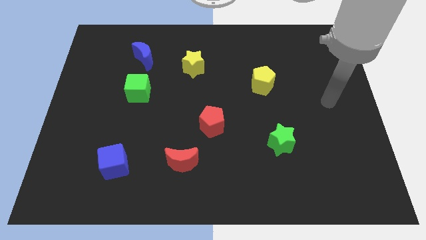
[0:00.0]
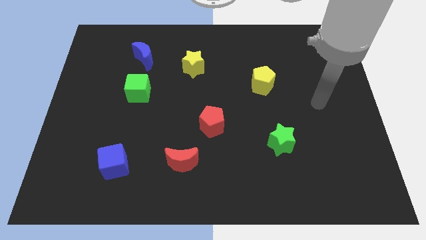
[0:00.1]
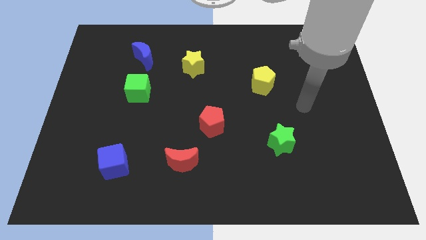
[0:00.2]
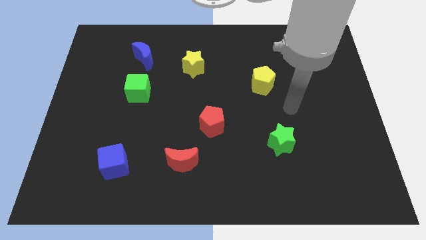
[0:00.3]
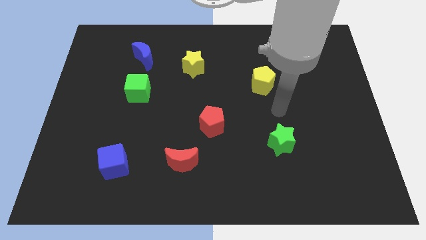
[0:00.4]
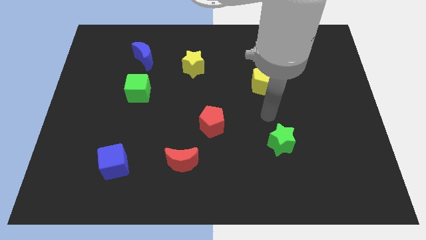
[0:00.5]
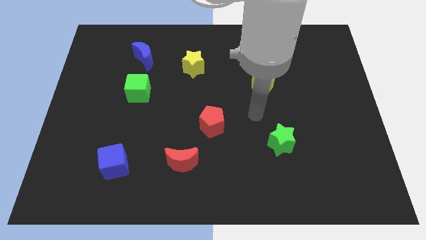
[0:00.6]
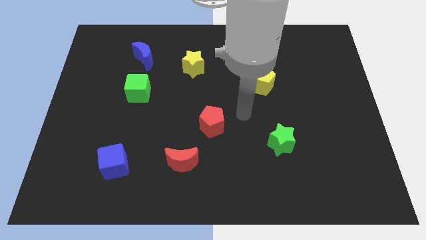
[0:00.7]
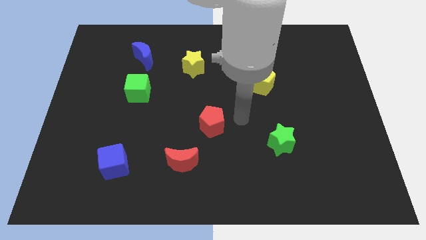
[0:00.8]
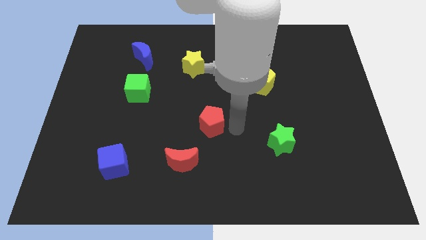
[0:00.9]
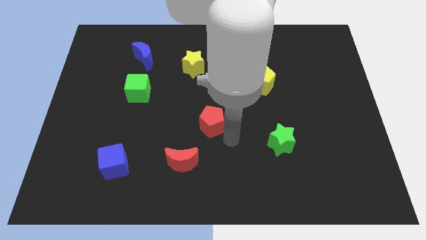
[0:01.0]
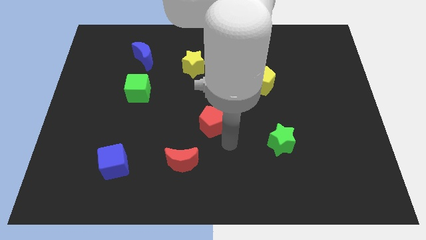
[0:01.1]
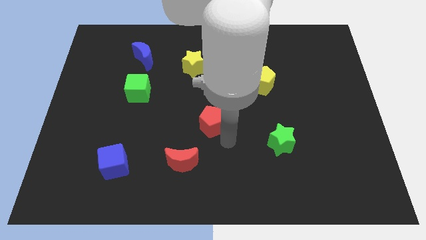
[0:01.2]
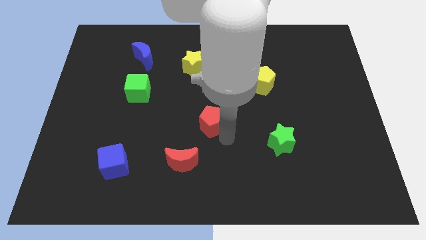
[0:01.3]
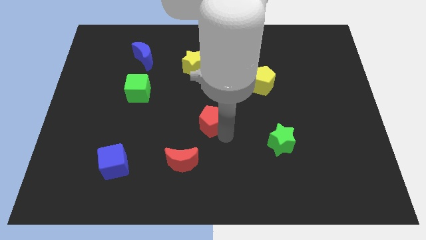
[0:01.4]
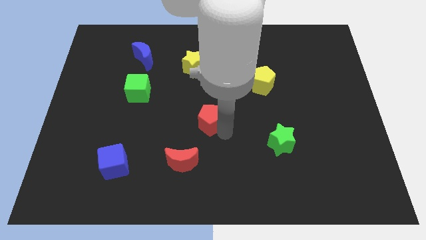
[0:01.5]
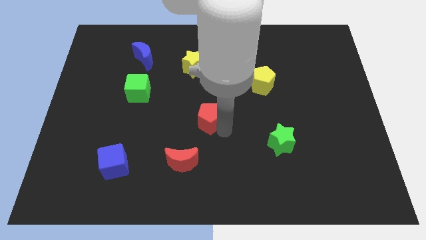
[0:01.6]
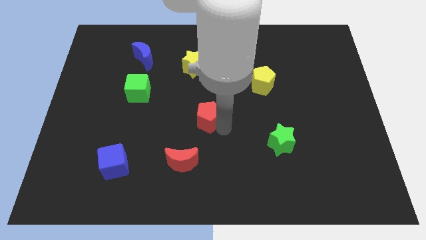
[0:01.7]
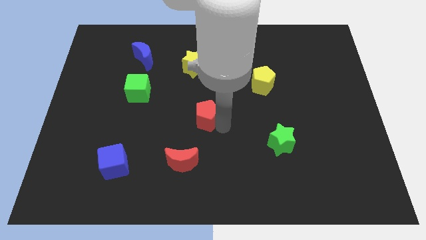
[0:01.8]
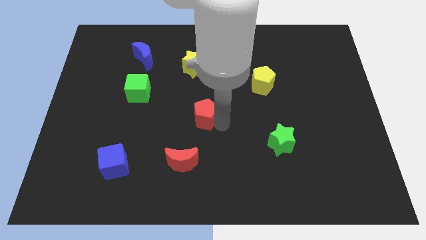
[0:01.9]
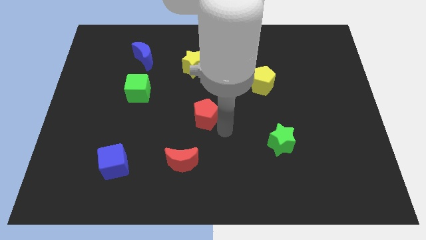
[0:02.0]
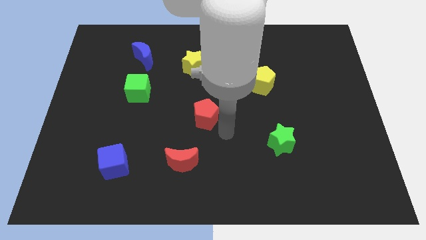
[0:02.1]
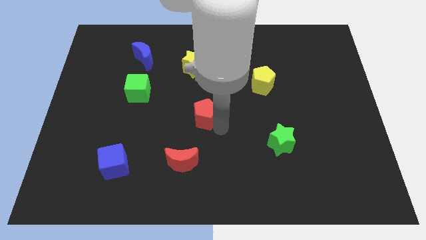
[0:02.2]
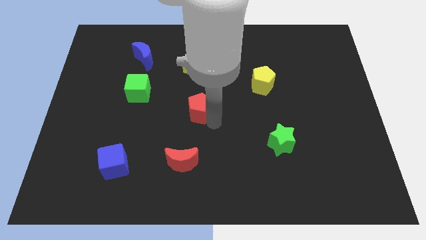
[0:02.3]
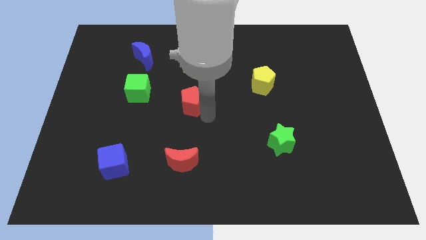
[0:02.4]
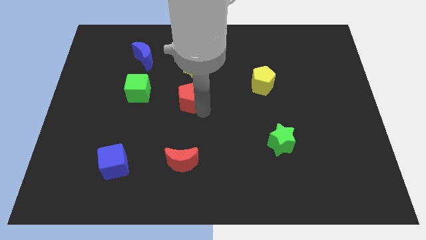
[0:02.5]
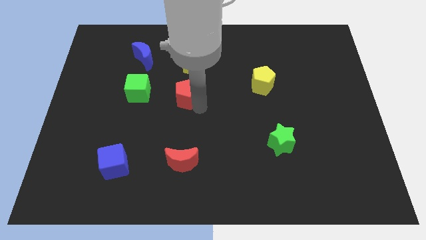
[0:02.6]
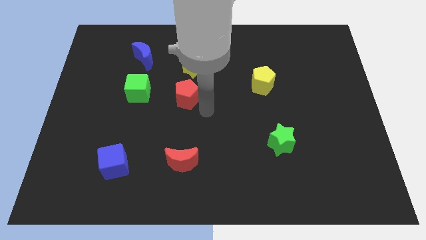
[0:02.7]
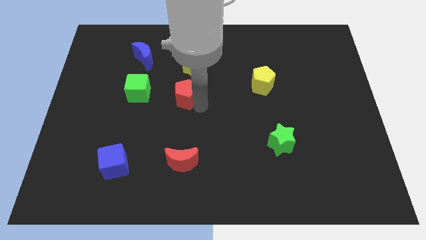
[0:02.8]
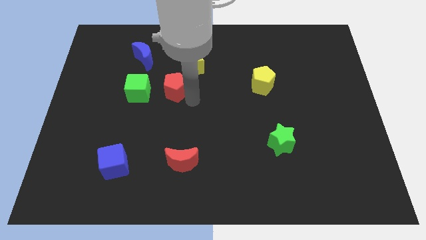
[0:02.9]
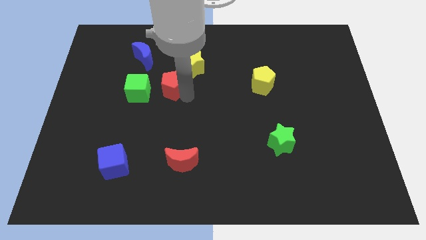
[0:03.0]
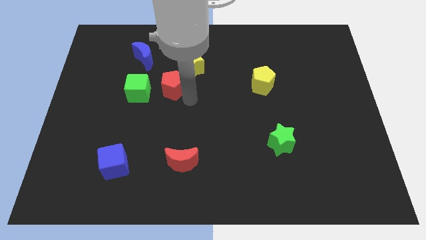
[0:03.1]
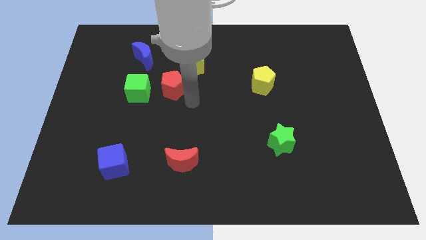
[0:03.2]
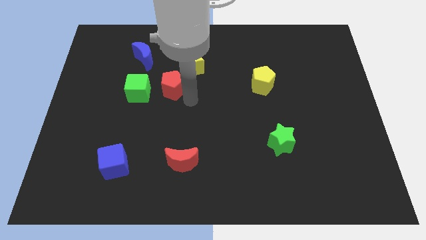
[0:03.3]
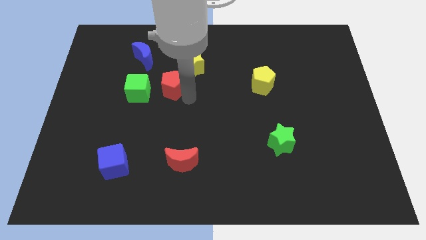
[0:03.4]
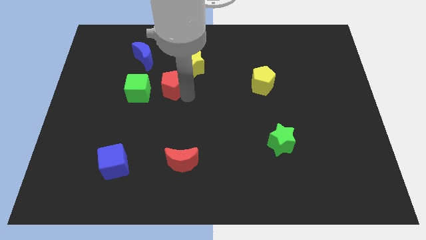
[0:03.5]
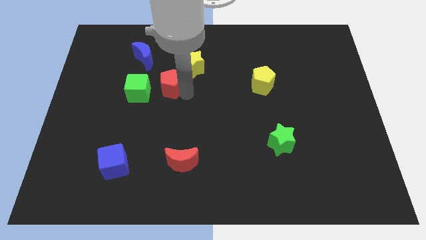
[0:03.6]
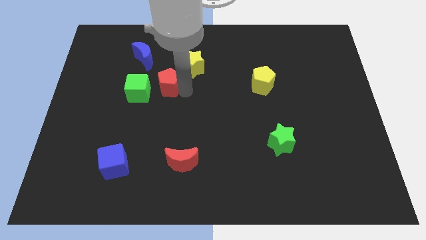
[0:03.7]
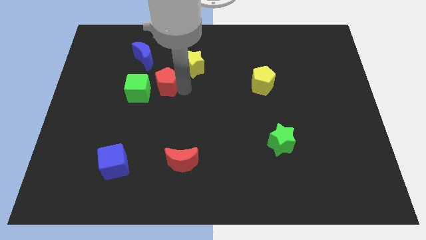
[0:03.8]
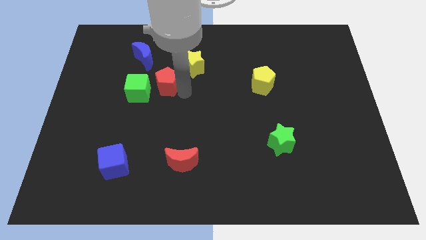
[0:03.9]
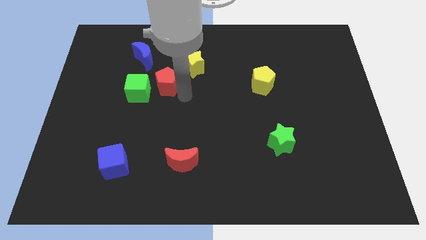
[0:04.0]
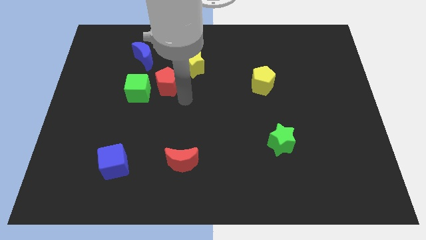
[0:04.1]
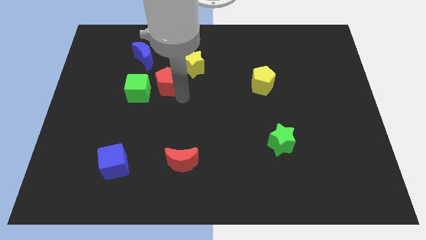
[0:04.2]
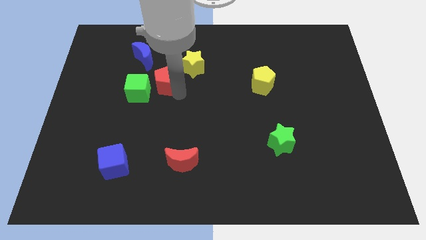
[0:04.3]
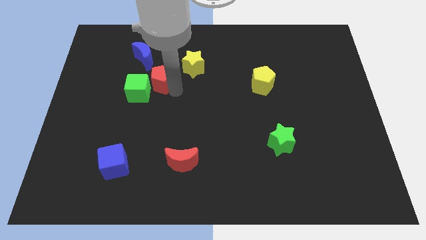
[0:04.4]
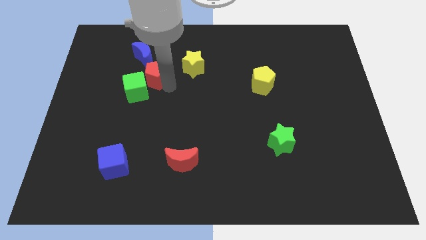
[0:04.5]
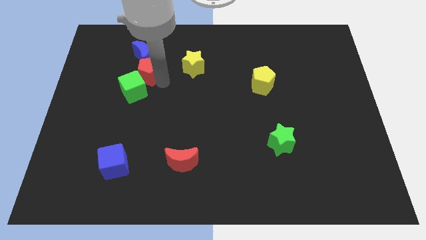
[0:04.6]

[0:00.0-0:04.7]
move the red pentagon next to the blue moon

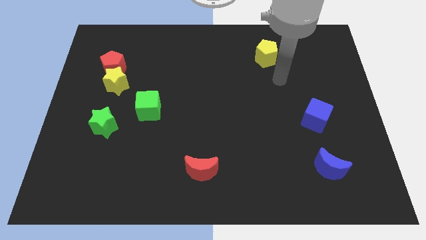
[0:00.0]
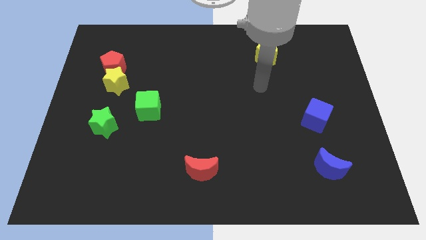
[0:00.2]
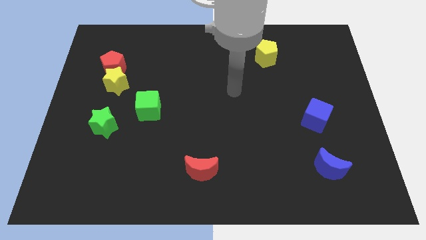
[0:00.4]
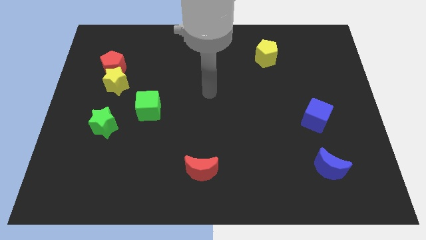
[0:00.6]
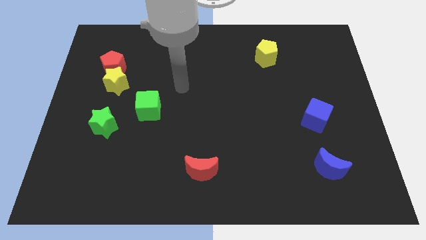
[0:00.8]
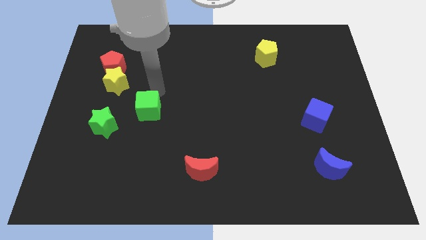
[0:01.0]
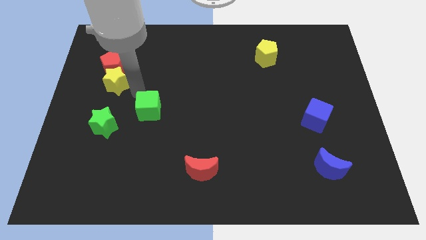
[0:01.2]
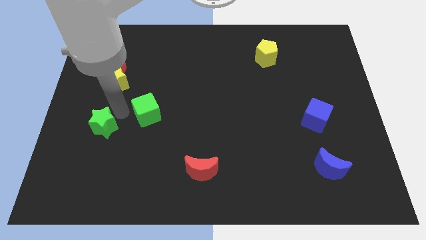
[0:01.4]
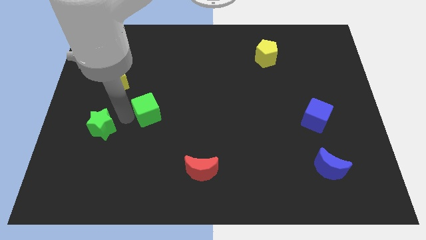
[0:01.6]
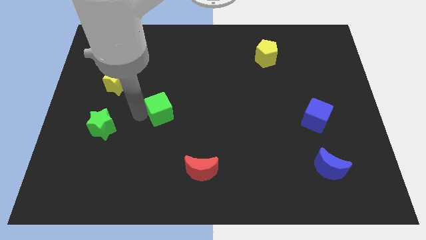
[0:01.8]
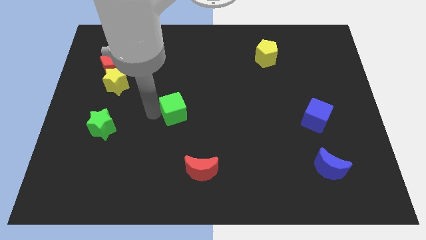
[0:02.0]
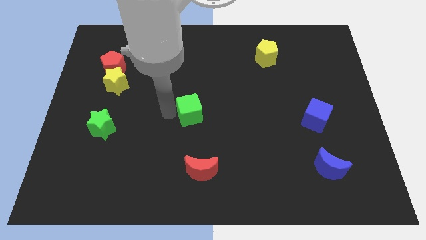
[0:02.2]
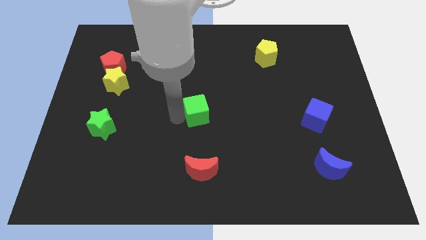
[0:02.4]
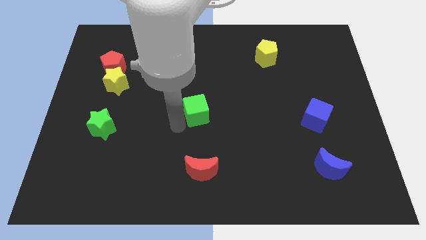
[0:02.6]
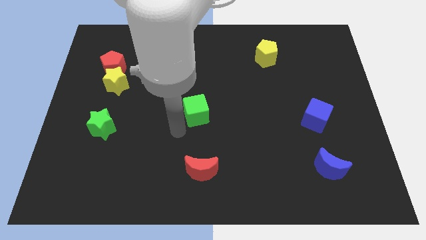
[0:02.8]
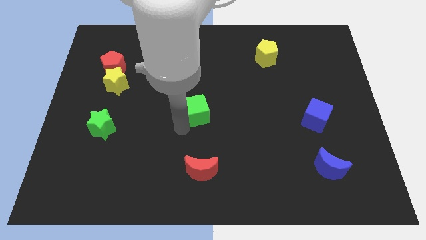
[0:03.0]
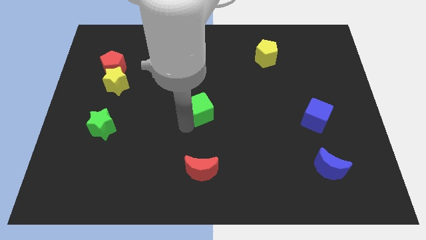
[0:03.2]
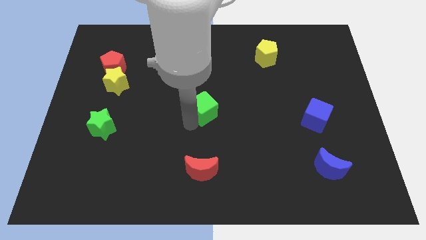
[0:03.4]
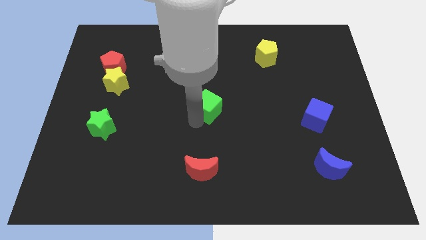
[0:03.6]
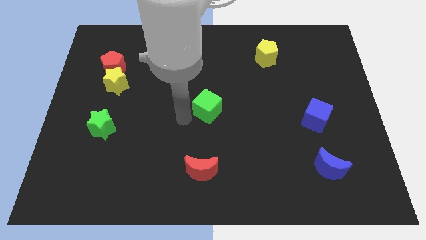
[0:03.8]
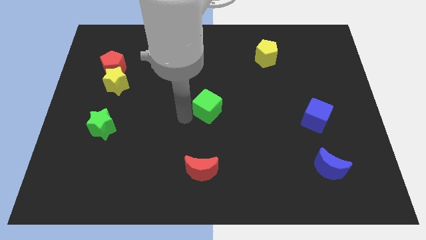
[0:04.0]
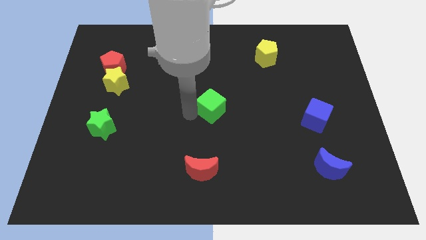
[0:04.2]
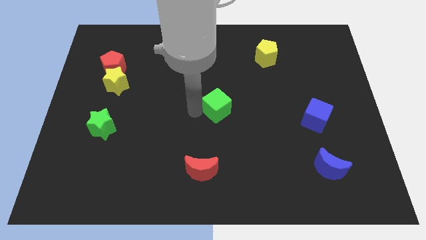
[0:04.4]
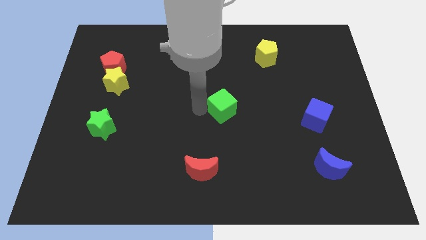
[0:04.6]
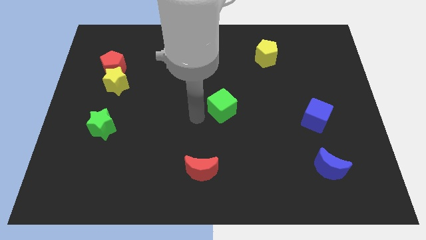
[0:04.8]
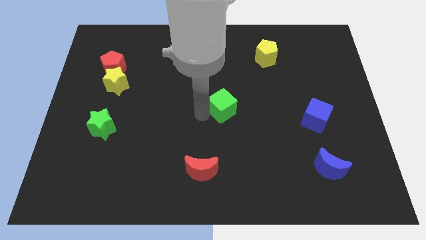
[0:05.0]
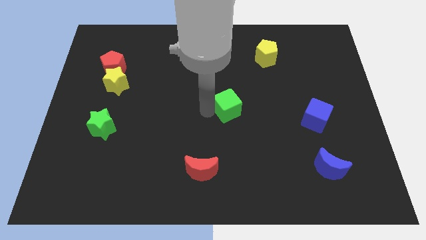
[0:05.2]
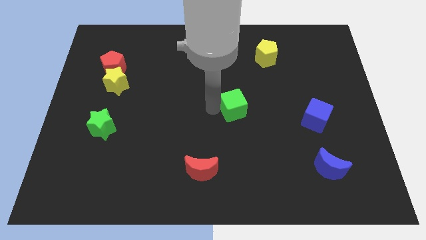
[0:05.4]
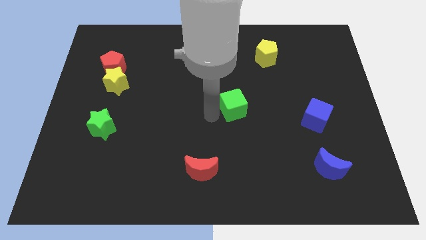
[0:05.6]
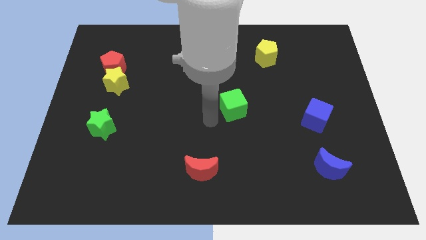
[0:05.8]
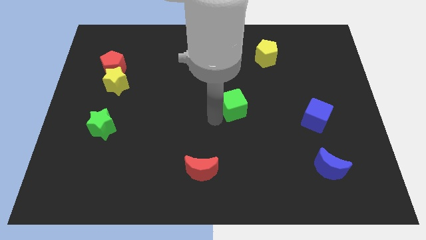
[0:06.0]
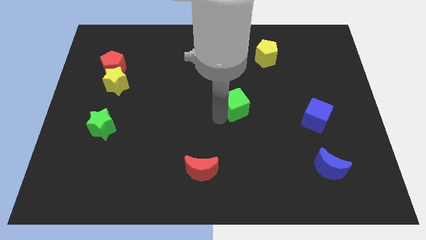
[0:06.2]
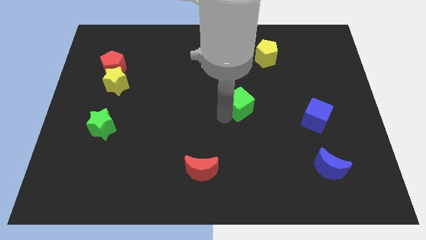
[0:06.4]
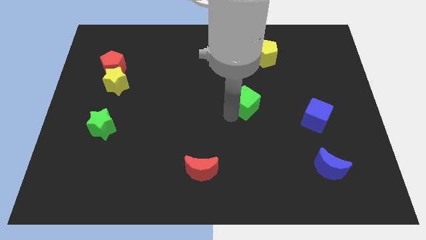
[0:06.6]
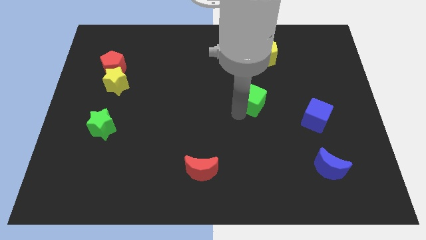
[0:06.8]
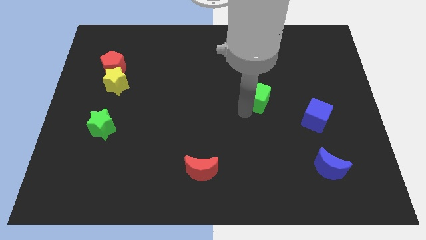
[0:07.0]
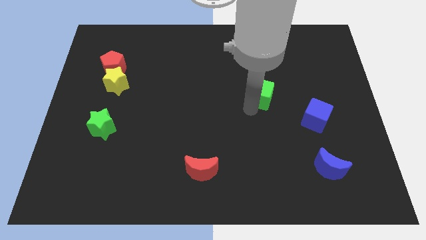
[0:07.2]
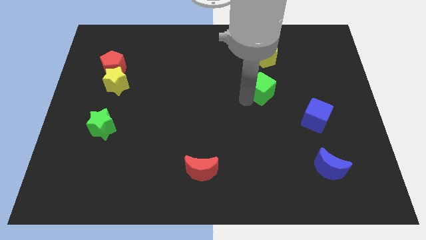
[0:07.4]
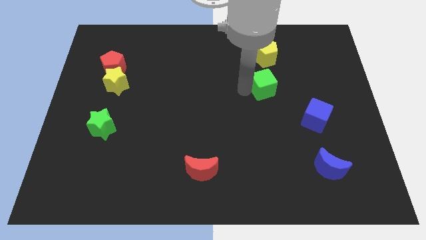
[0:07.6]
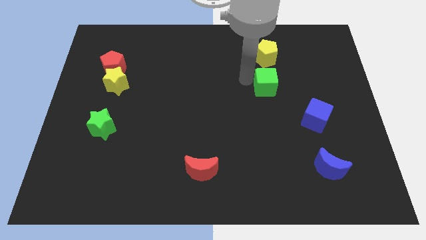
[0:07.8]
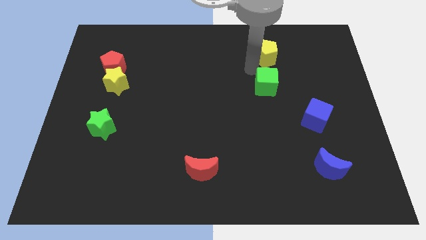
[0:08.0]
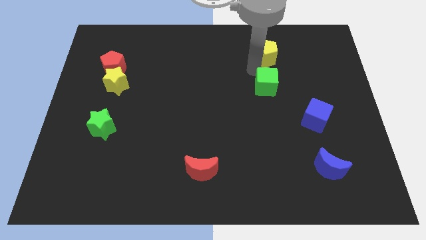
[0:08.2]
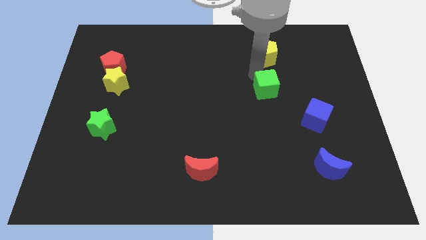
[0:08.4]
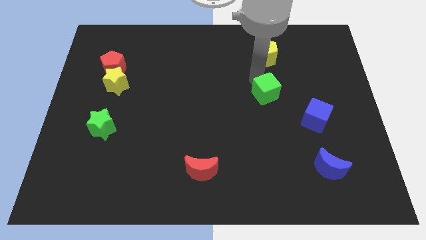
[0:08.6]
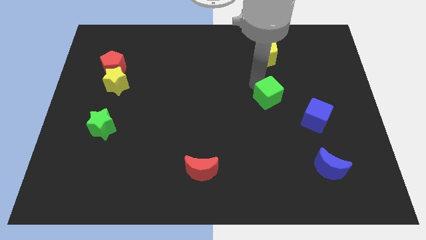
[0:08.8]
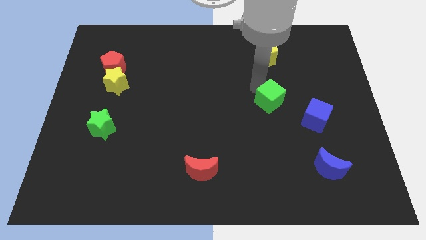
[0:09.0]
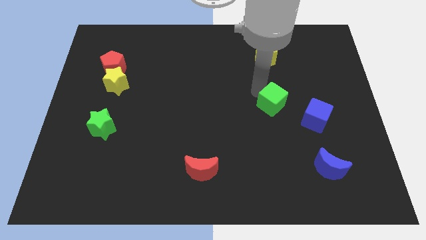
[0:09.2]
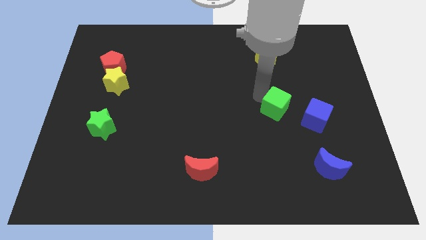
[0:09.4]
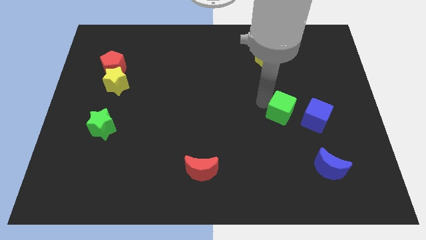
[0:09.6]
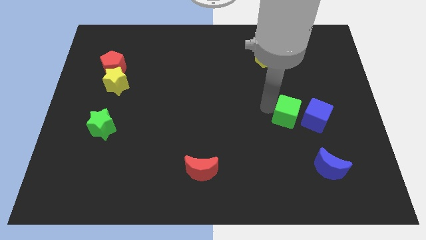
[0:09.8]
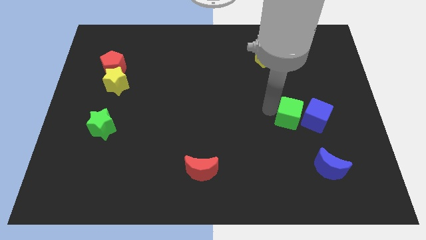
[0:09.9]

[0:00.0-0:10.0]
push the green cube next to the blue cube
